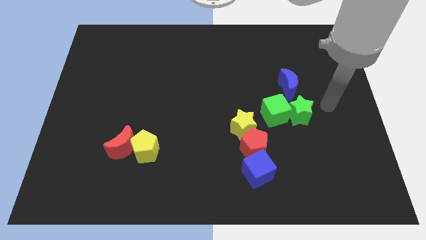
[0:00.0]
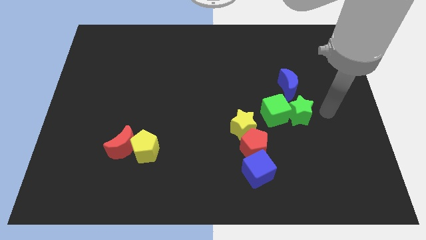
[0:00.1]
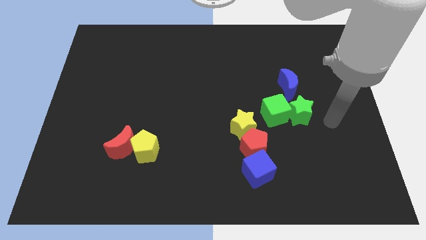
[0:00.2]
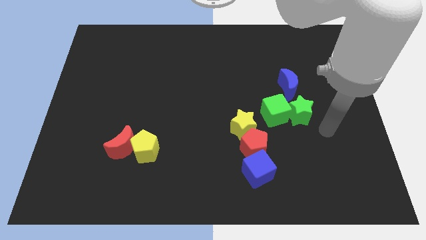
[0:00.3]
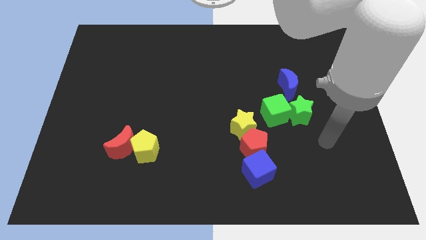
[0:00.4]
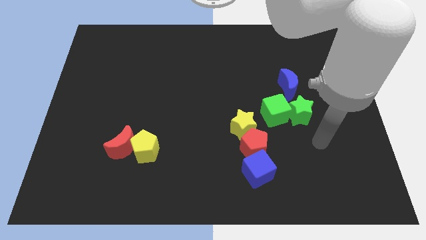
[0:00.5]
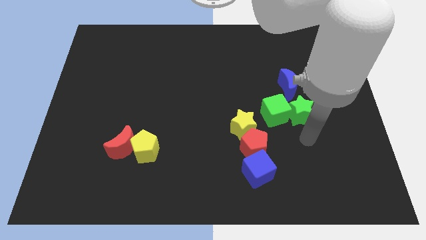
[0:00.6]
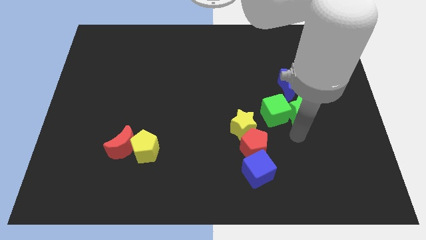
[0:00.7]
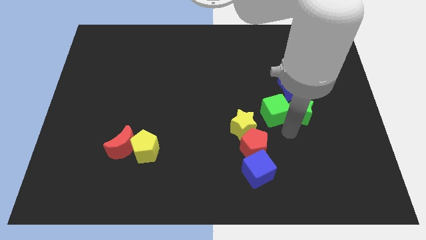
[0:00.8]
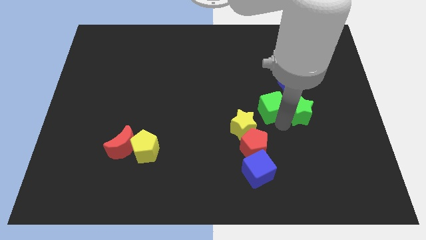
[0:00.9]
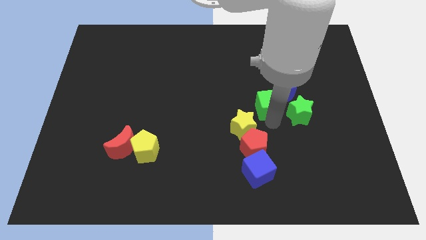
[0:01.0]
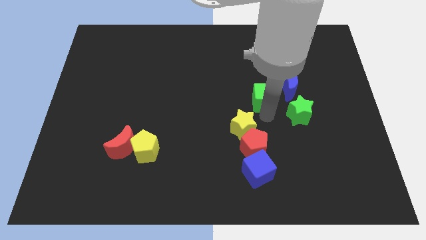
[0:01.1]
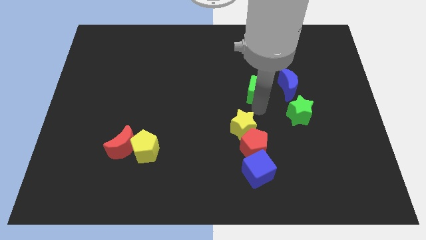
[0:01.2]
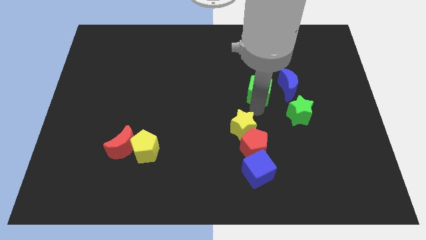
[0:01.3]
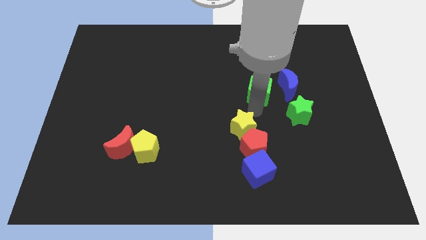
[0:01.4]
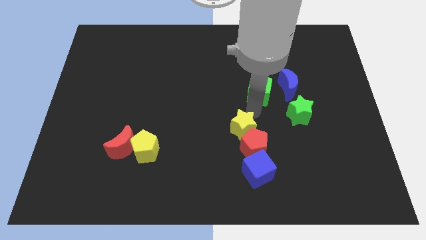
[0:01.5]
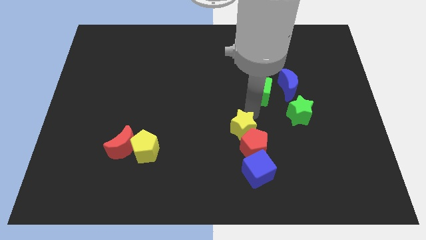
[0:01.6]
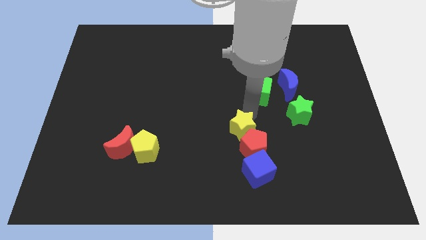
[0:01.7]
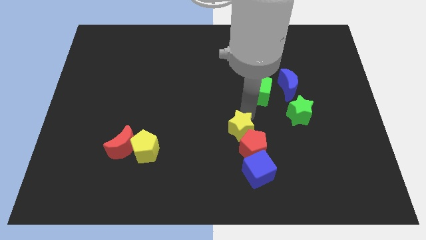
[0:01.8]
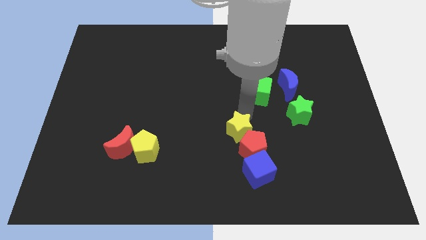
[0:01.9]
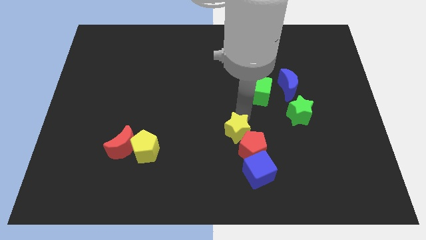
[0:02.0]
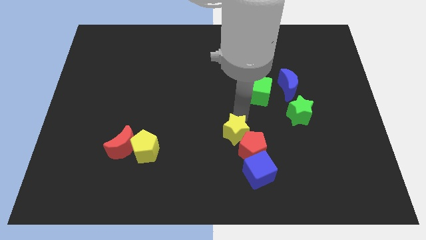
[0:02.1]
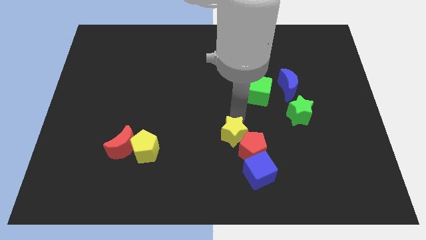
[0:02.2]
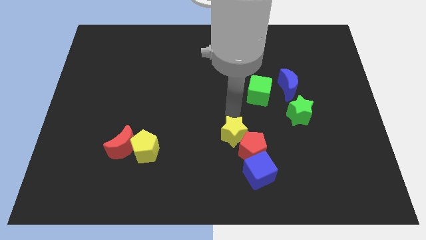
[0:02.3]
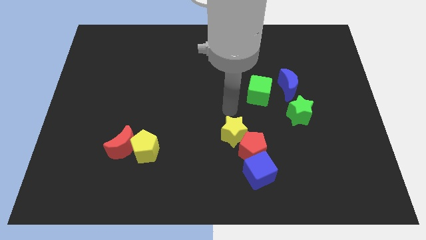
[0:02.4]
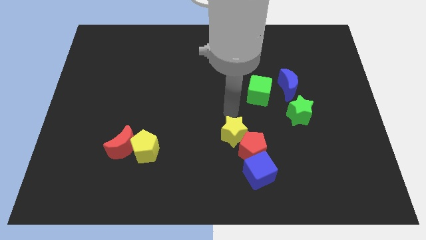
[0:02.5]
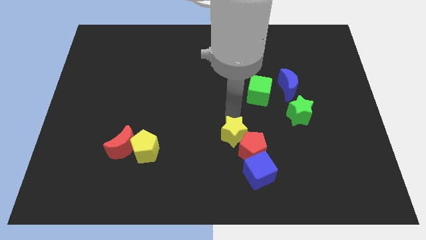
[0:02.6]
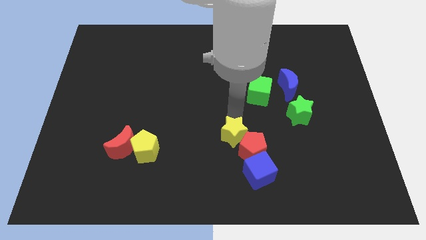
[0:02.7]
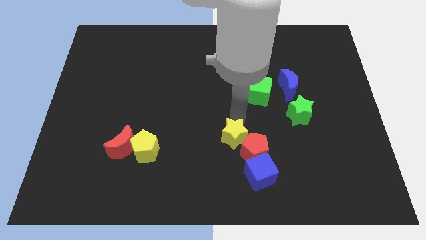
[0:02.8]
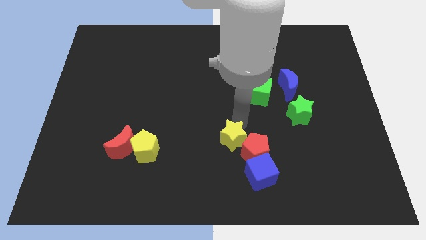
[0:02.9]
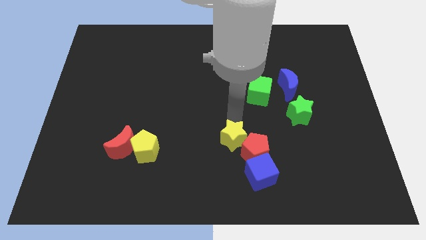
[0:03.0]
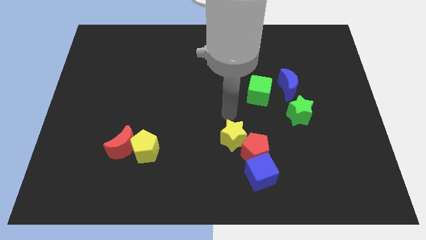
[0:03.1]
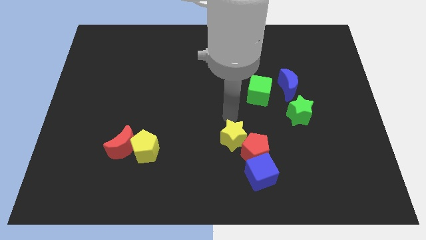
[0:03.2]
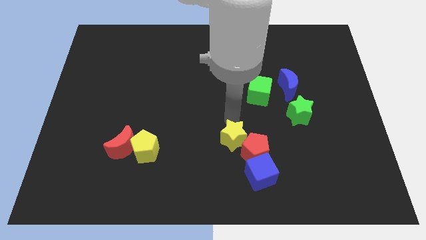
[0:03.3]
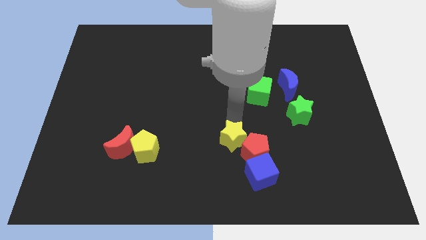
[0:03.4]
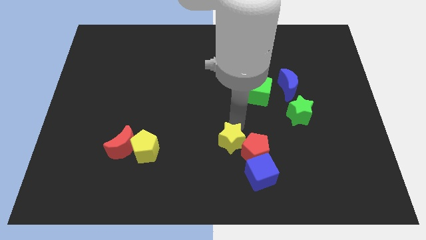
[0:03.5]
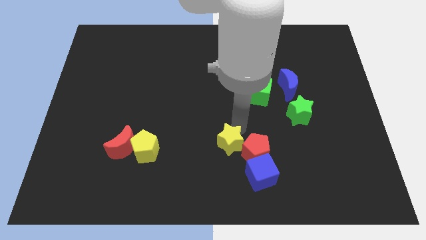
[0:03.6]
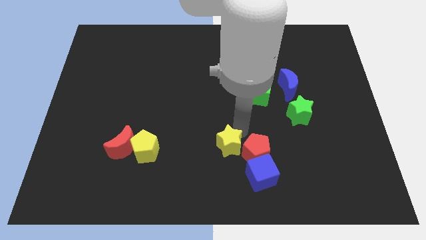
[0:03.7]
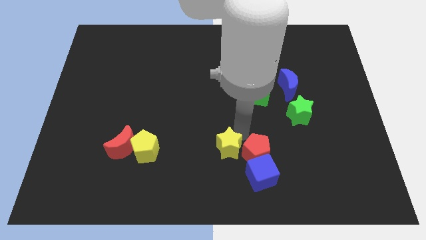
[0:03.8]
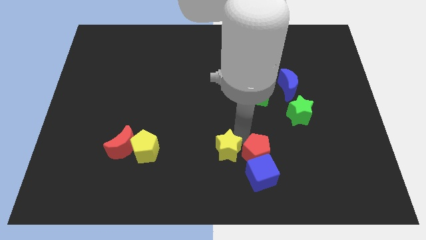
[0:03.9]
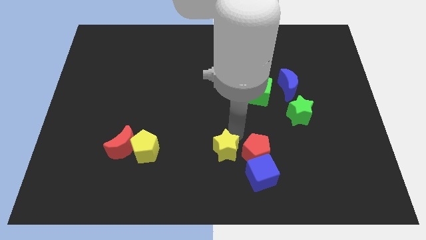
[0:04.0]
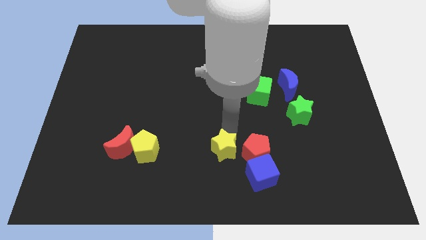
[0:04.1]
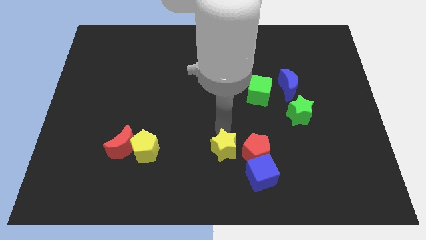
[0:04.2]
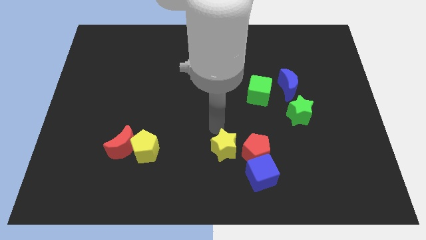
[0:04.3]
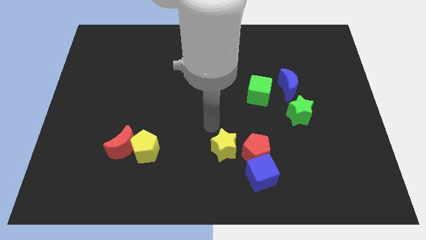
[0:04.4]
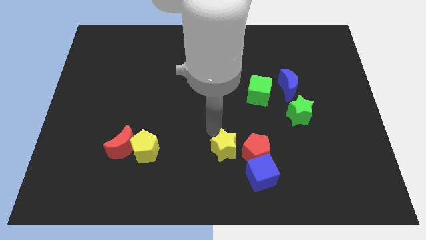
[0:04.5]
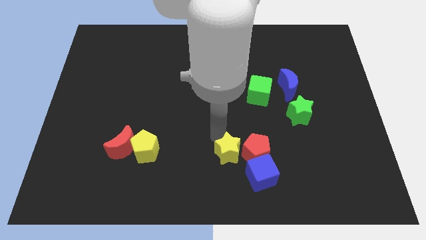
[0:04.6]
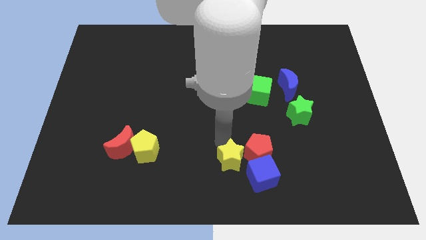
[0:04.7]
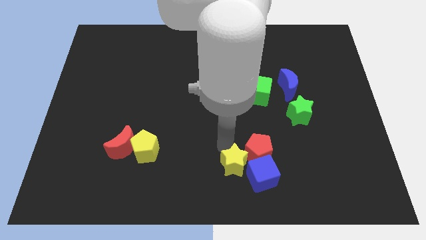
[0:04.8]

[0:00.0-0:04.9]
slide the yellow star to the blue cube
